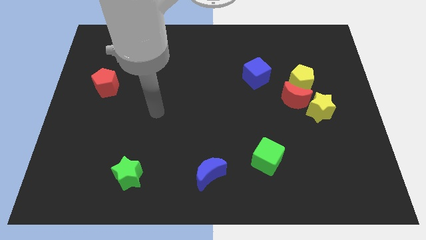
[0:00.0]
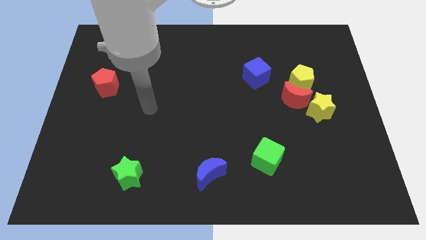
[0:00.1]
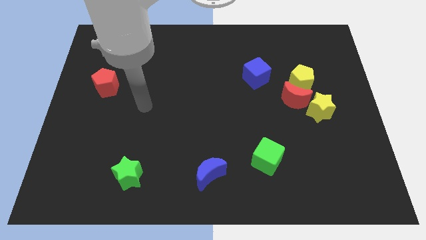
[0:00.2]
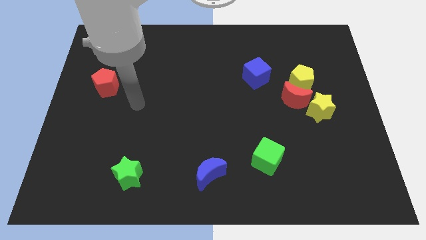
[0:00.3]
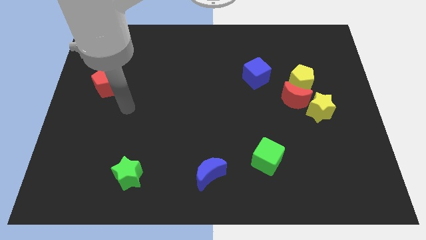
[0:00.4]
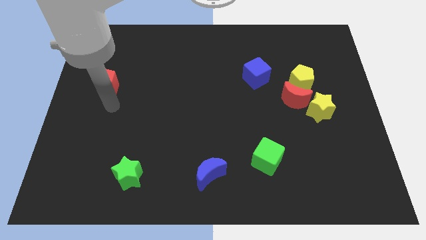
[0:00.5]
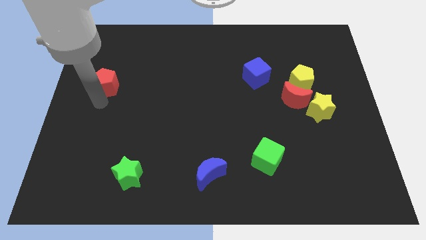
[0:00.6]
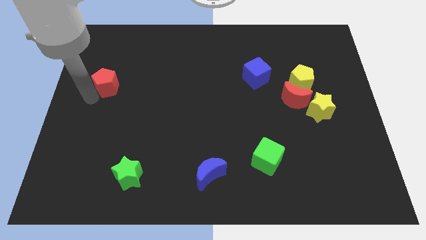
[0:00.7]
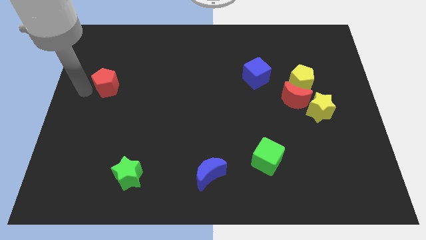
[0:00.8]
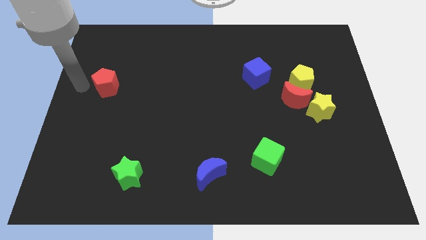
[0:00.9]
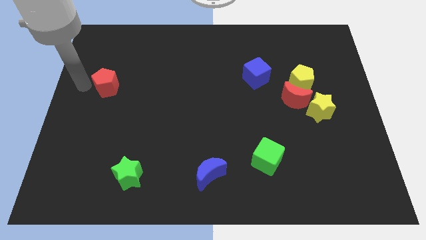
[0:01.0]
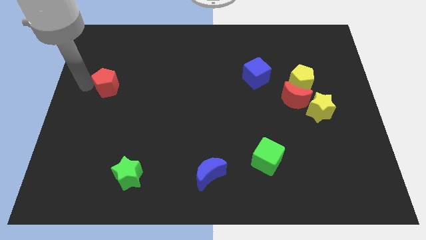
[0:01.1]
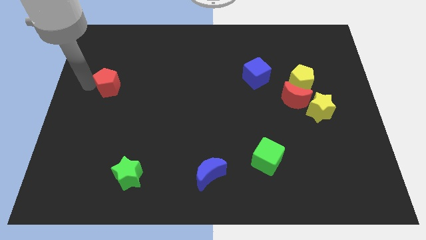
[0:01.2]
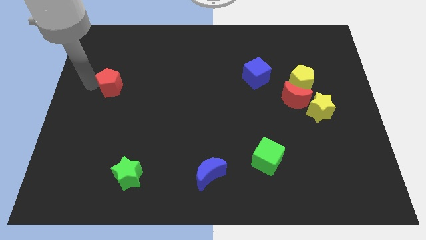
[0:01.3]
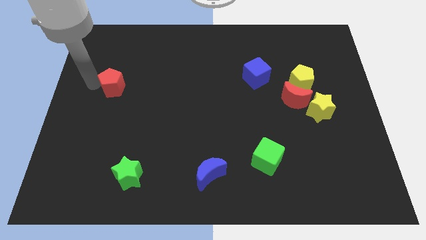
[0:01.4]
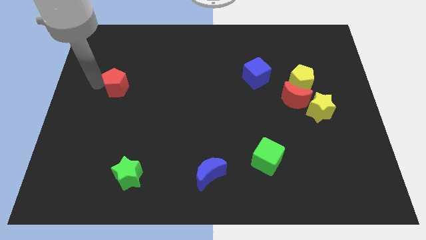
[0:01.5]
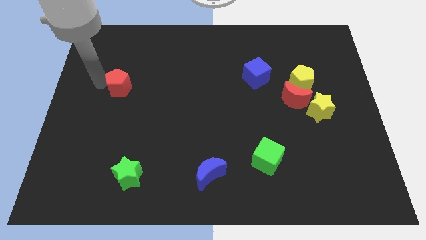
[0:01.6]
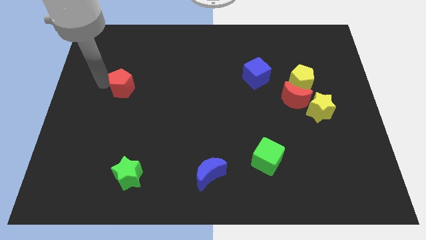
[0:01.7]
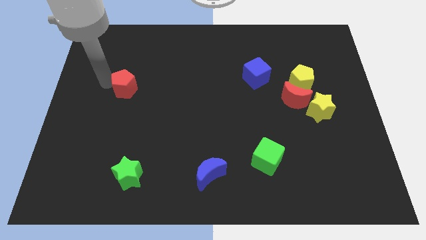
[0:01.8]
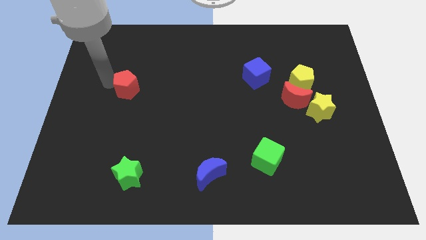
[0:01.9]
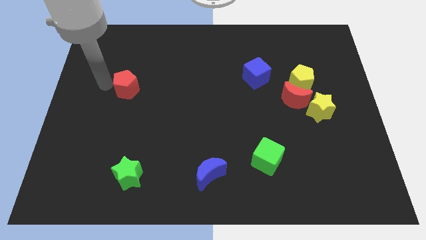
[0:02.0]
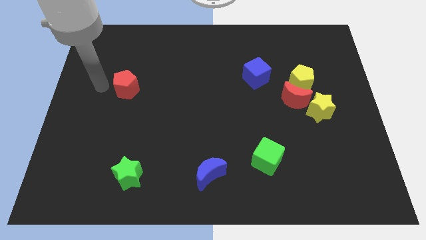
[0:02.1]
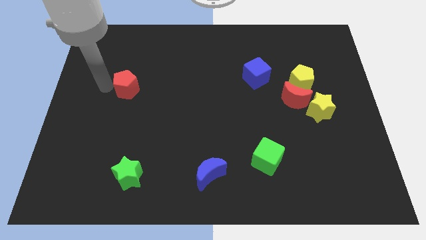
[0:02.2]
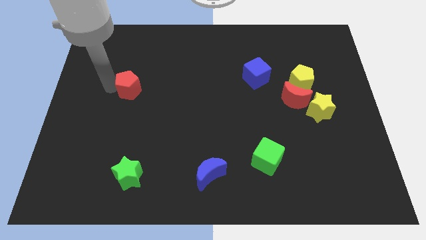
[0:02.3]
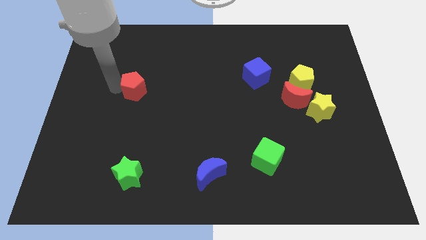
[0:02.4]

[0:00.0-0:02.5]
slightly slide the red pentagon right

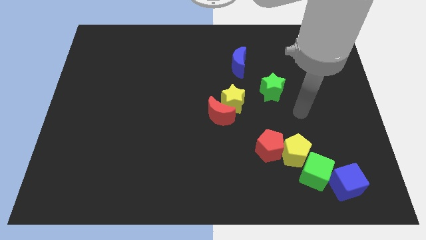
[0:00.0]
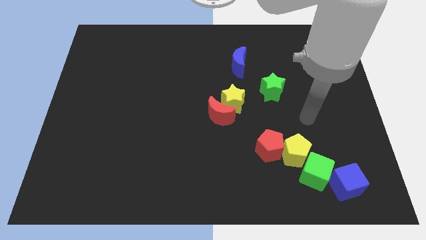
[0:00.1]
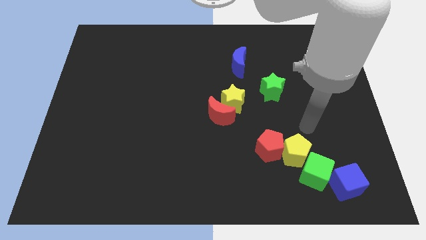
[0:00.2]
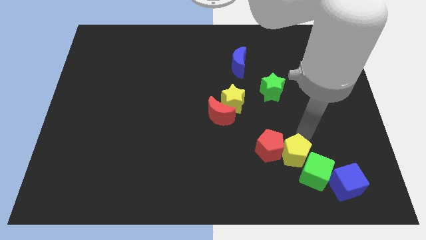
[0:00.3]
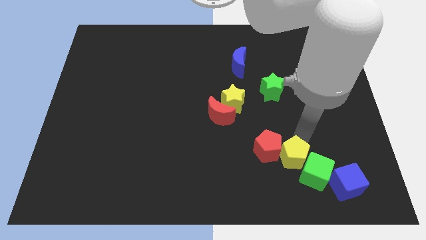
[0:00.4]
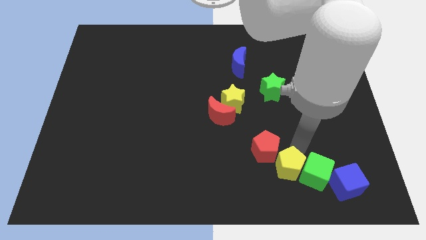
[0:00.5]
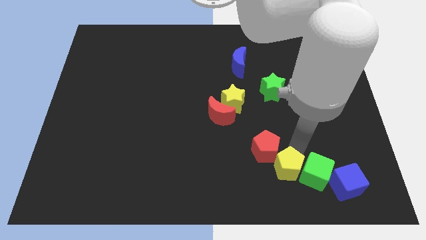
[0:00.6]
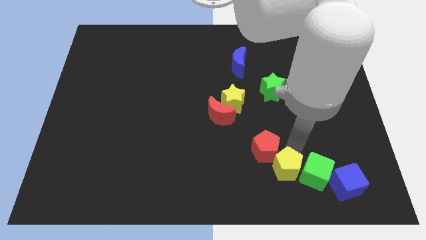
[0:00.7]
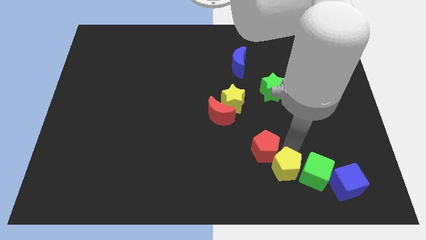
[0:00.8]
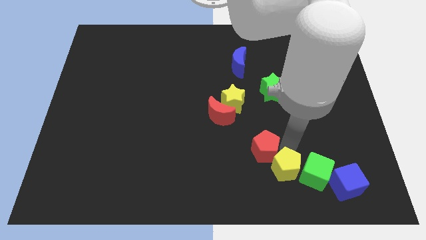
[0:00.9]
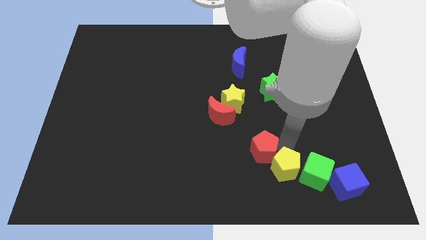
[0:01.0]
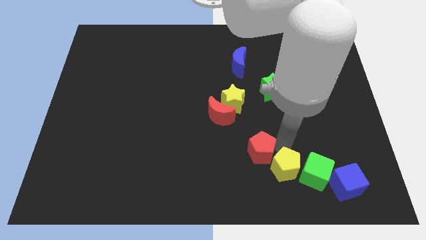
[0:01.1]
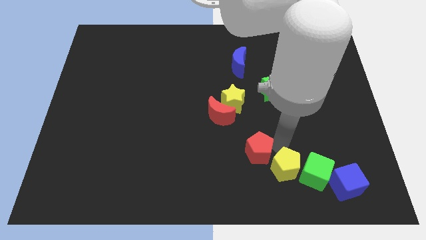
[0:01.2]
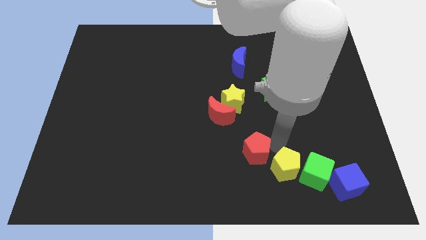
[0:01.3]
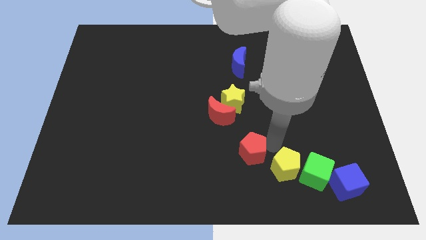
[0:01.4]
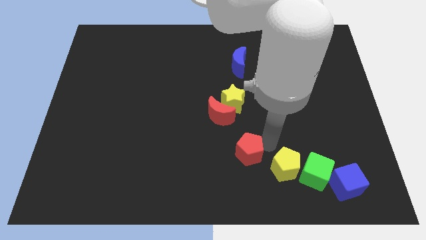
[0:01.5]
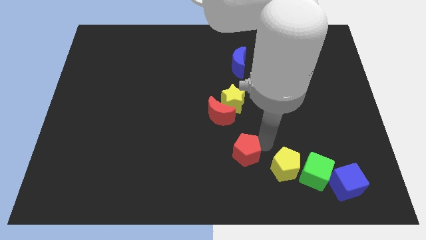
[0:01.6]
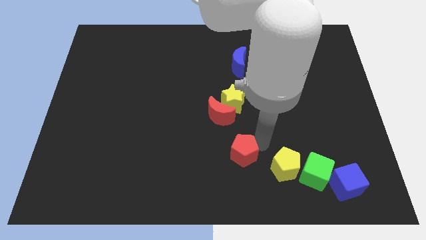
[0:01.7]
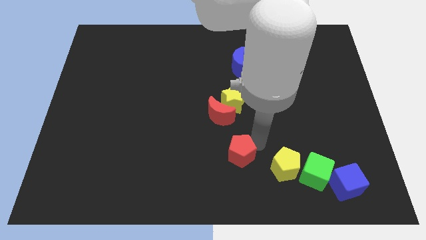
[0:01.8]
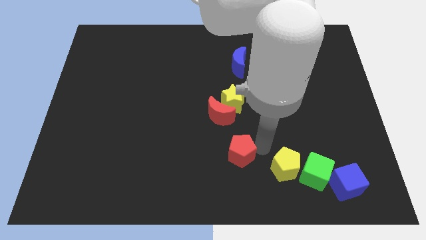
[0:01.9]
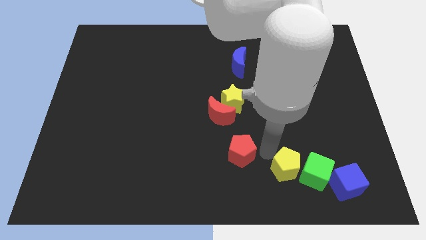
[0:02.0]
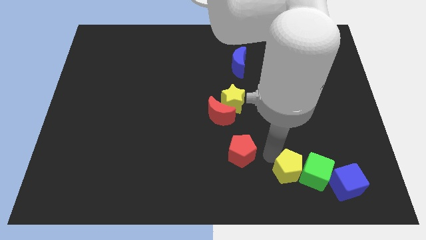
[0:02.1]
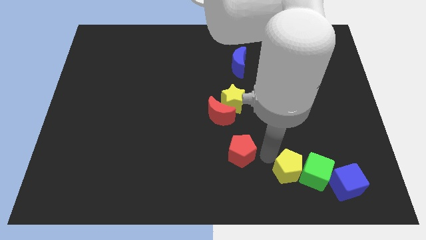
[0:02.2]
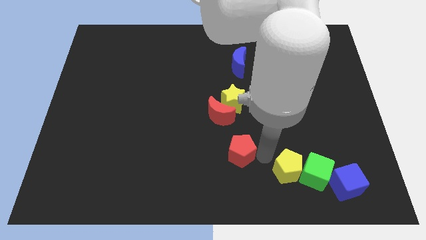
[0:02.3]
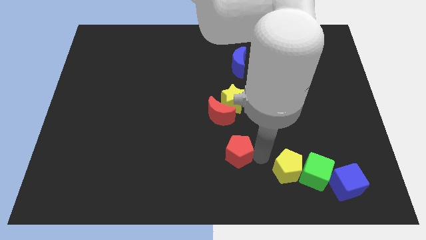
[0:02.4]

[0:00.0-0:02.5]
push the red pentagon left slightly

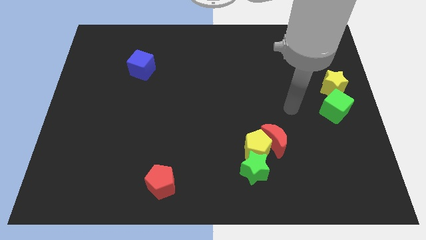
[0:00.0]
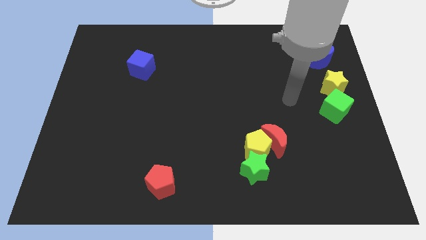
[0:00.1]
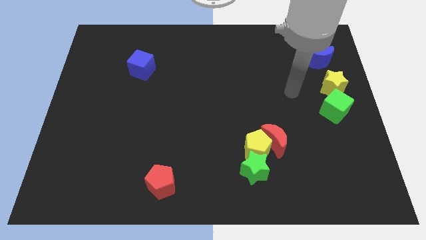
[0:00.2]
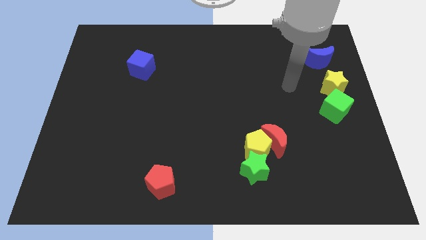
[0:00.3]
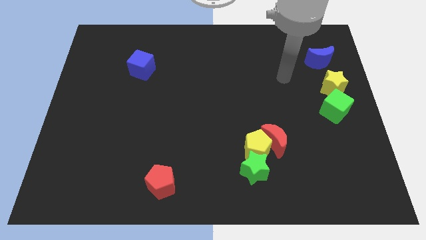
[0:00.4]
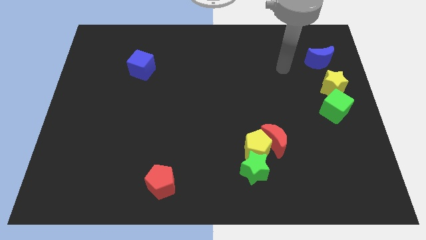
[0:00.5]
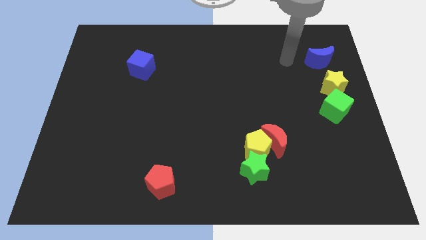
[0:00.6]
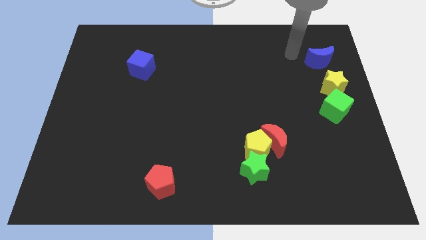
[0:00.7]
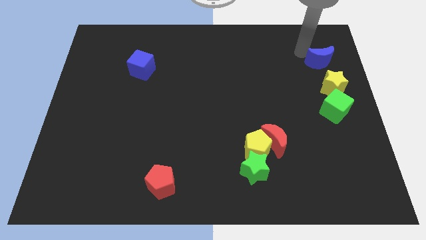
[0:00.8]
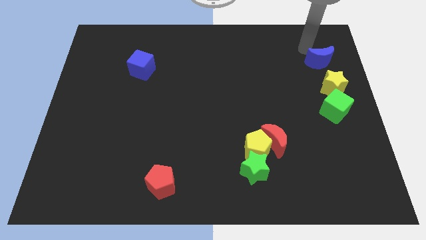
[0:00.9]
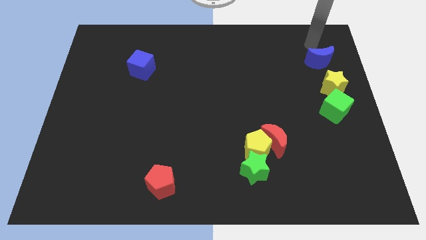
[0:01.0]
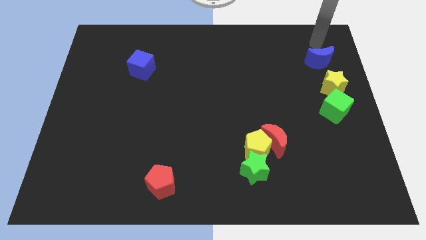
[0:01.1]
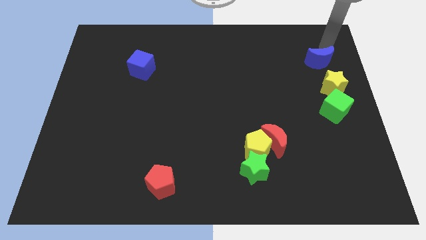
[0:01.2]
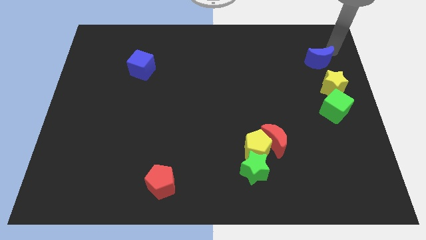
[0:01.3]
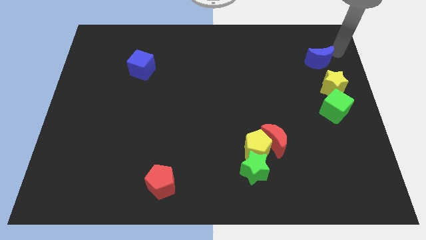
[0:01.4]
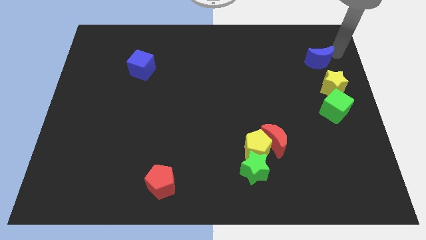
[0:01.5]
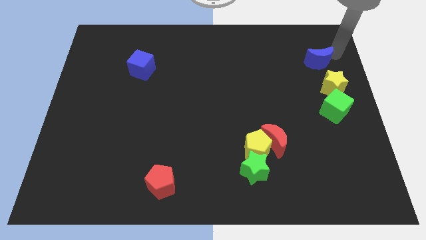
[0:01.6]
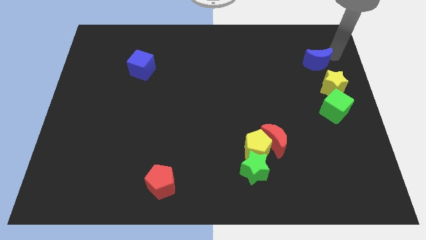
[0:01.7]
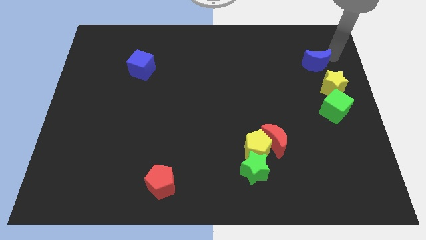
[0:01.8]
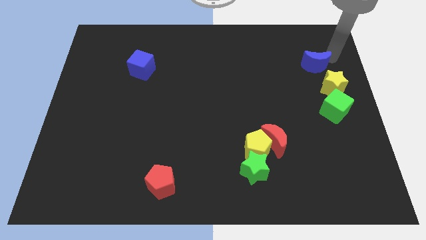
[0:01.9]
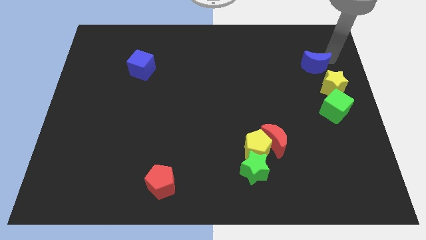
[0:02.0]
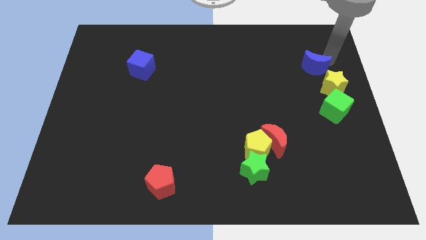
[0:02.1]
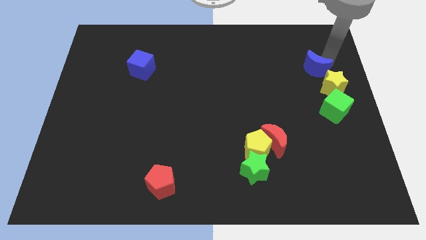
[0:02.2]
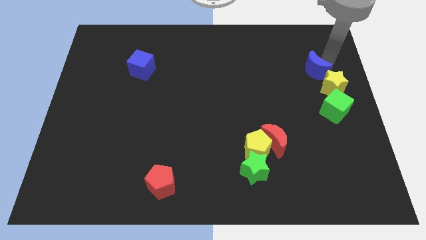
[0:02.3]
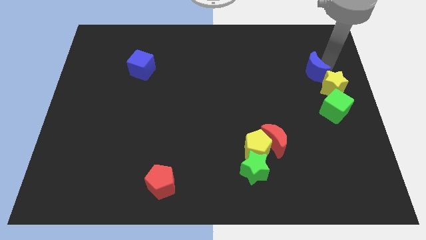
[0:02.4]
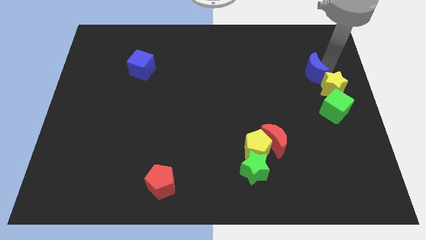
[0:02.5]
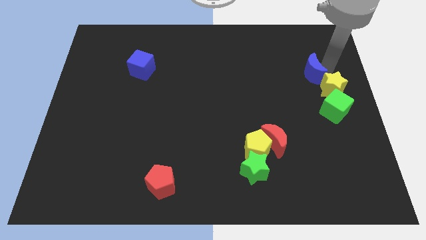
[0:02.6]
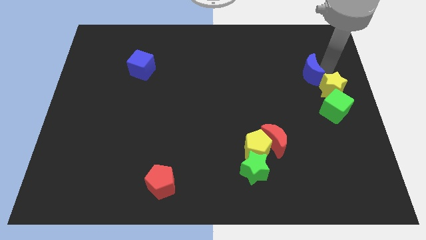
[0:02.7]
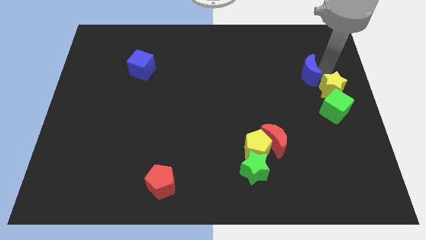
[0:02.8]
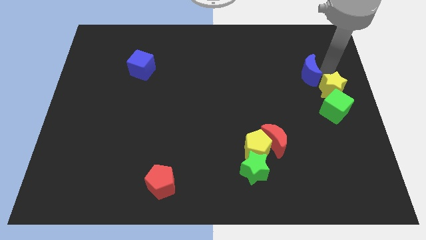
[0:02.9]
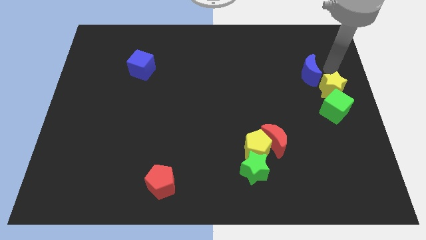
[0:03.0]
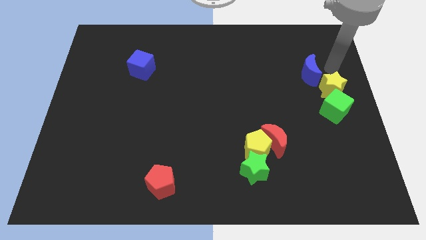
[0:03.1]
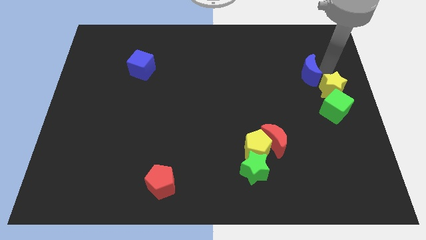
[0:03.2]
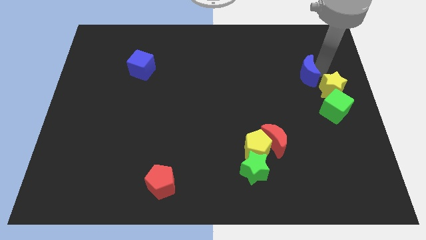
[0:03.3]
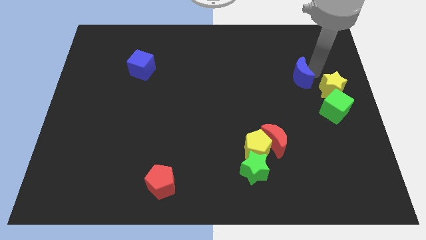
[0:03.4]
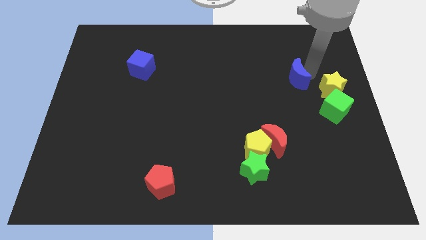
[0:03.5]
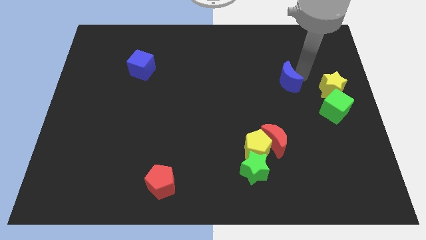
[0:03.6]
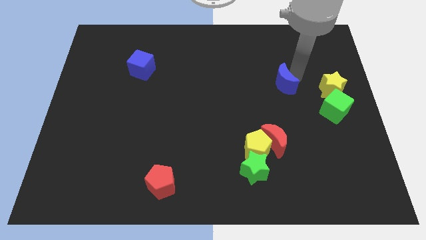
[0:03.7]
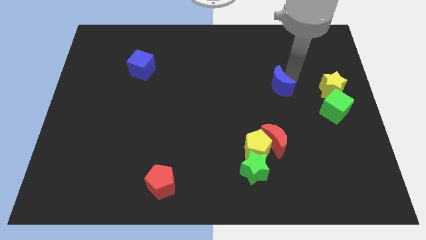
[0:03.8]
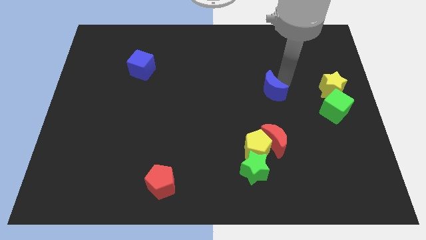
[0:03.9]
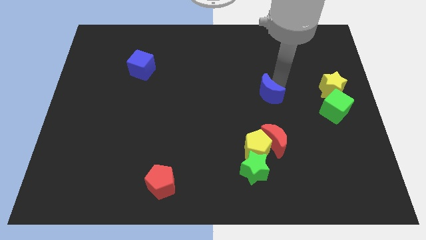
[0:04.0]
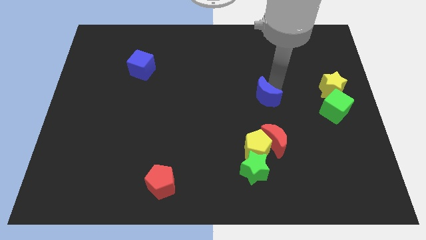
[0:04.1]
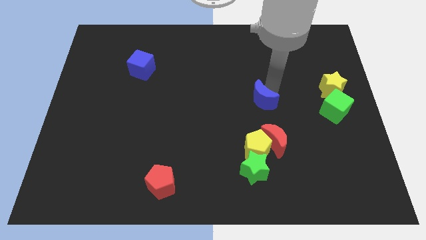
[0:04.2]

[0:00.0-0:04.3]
slide the blue moon downwards and to the left diagonally
